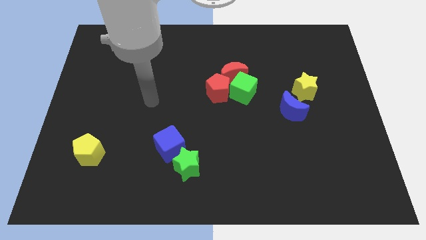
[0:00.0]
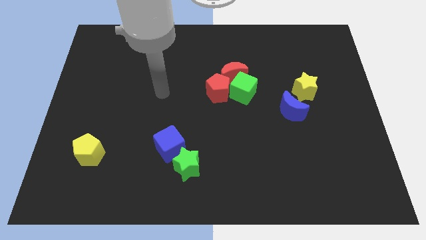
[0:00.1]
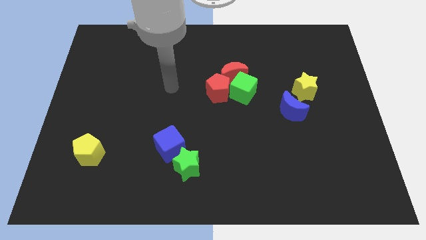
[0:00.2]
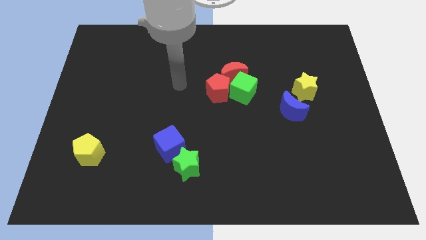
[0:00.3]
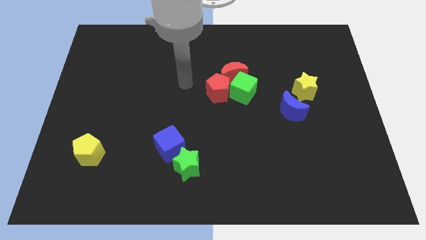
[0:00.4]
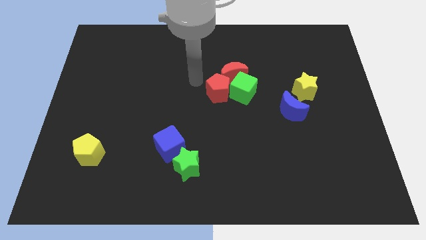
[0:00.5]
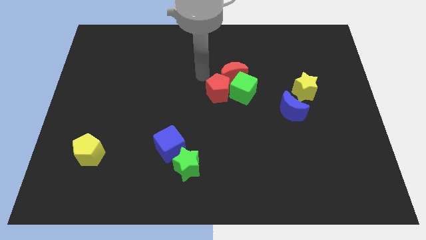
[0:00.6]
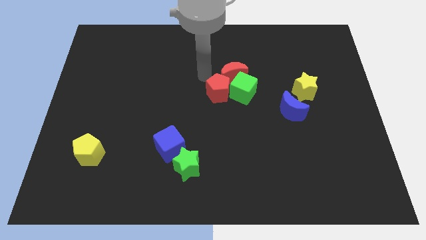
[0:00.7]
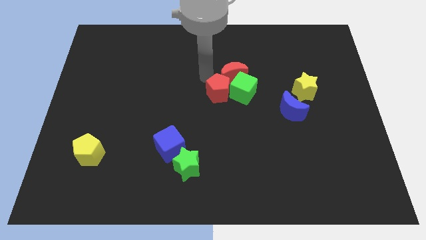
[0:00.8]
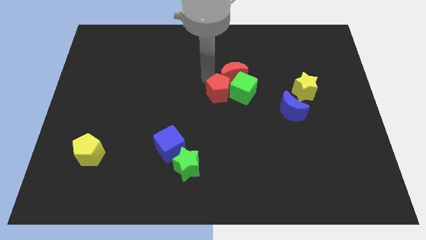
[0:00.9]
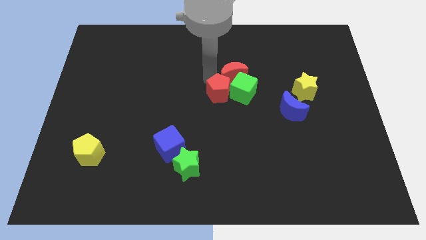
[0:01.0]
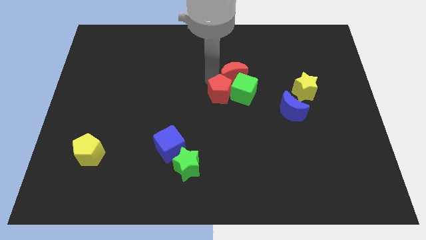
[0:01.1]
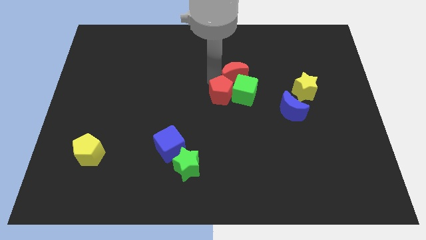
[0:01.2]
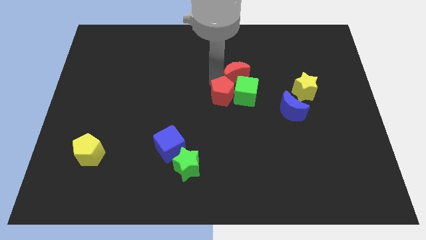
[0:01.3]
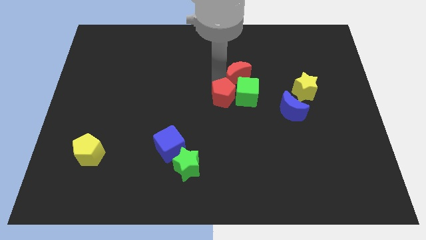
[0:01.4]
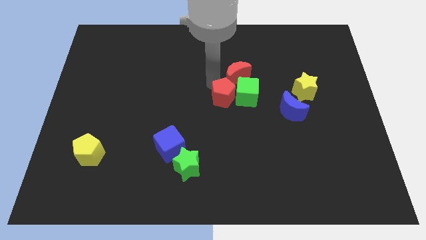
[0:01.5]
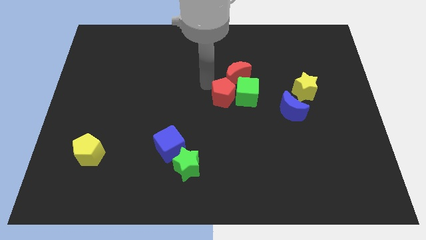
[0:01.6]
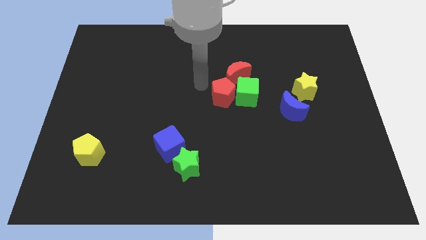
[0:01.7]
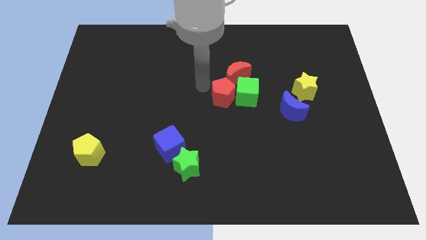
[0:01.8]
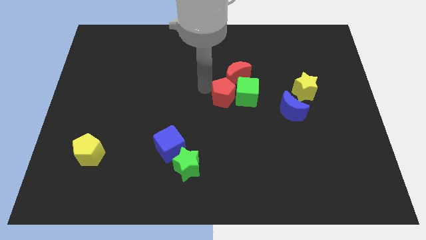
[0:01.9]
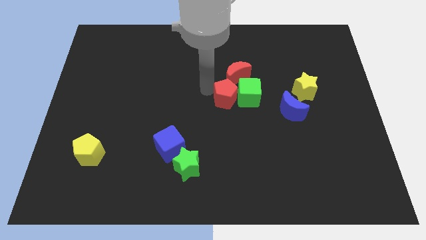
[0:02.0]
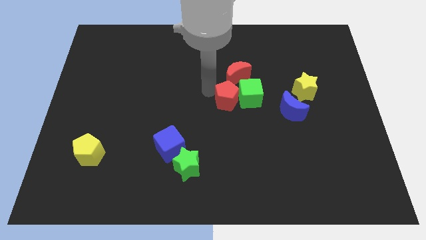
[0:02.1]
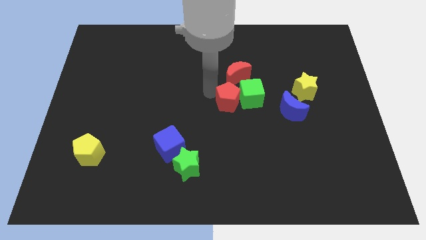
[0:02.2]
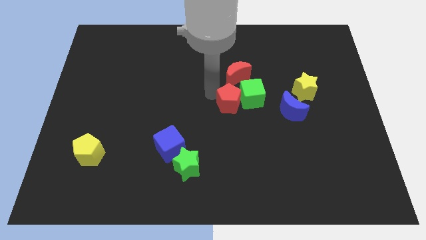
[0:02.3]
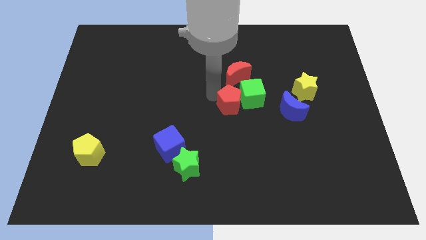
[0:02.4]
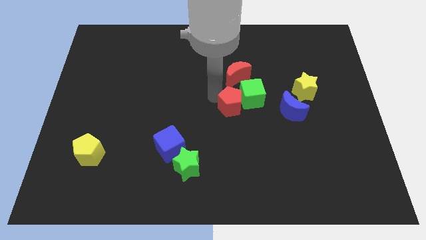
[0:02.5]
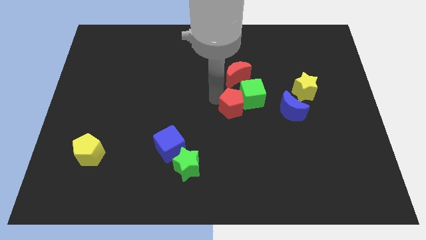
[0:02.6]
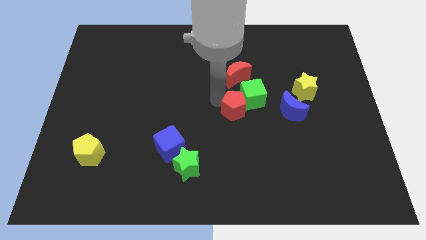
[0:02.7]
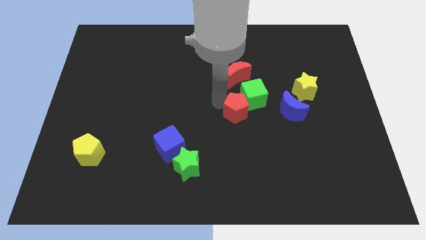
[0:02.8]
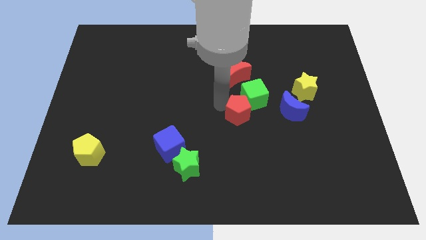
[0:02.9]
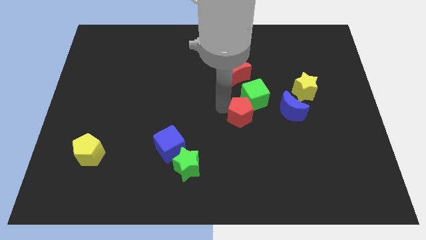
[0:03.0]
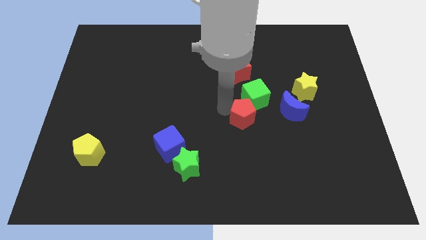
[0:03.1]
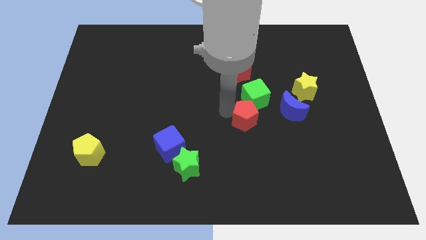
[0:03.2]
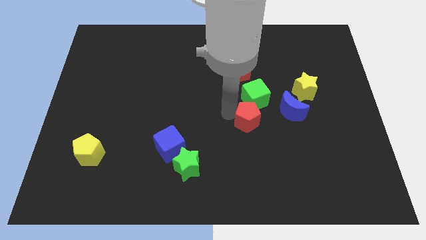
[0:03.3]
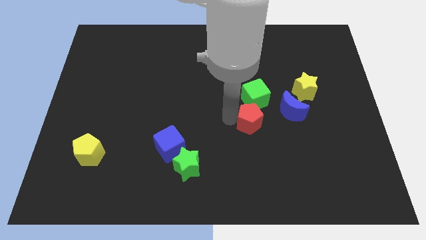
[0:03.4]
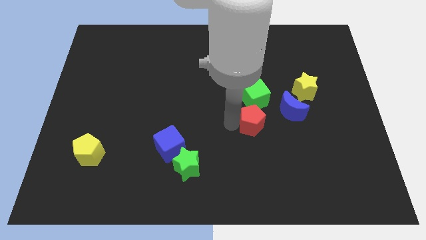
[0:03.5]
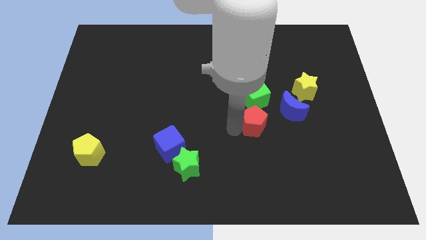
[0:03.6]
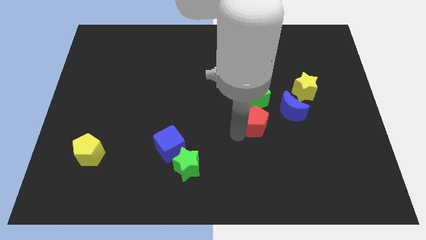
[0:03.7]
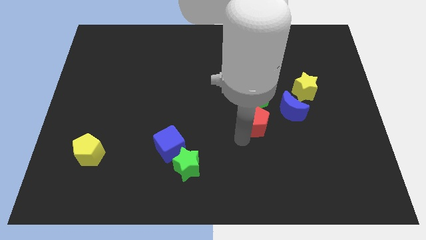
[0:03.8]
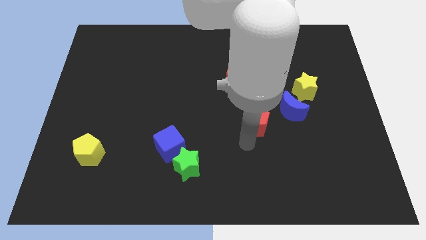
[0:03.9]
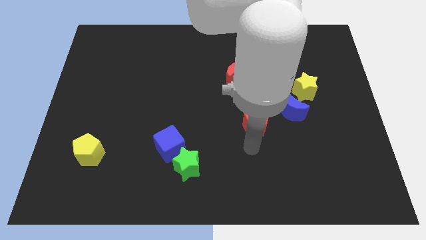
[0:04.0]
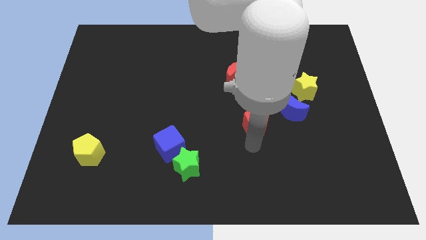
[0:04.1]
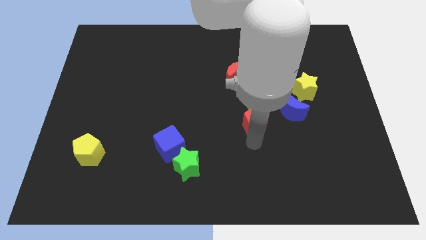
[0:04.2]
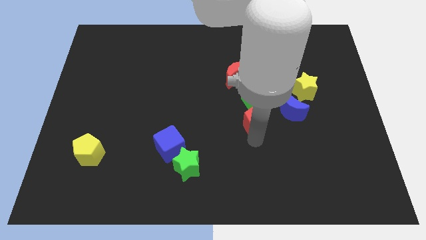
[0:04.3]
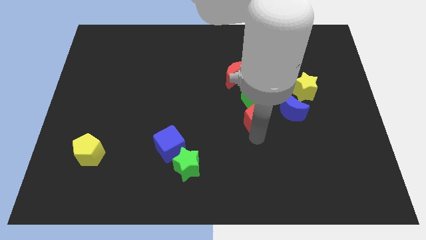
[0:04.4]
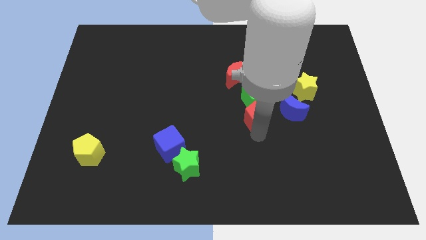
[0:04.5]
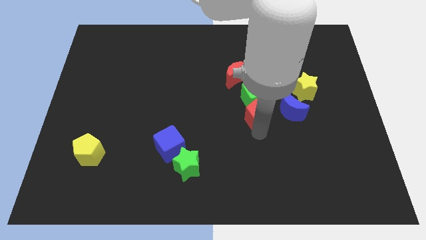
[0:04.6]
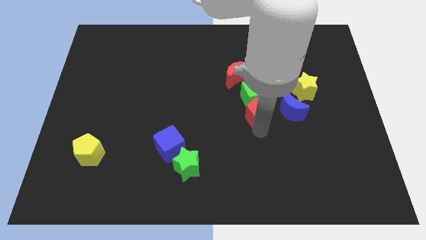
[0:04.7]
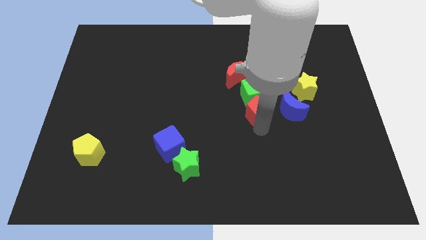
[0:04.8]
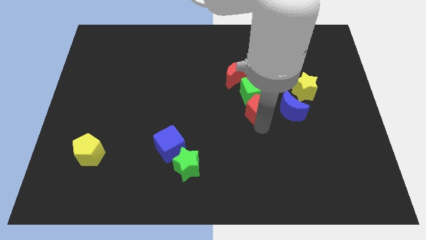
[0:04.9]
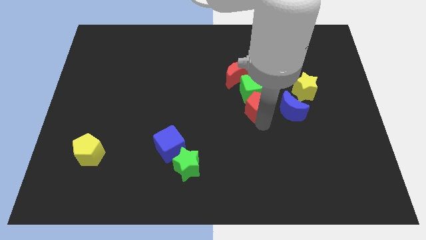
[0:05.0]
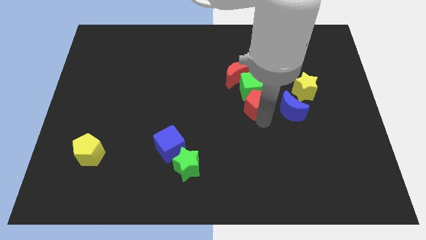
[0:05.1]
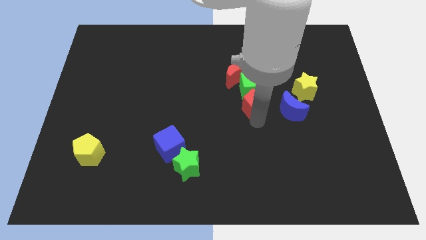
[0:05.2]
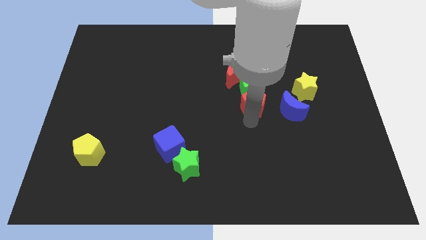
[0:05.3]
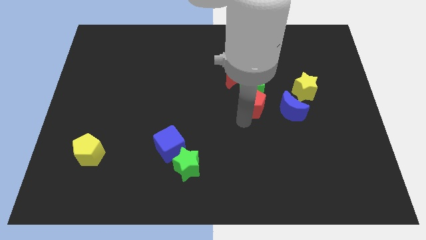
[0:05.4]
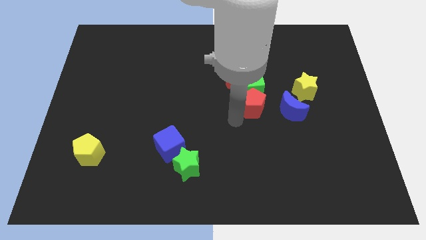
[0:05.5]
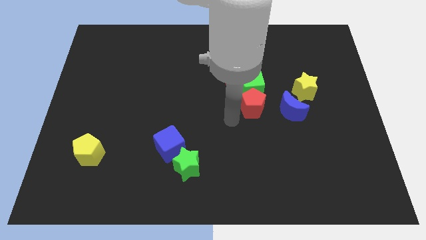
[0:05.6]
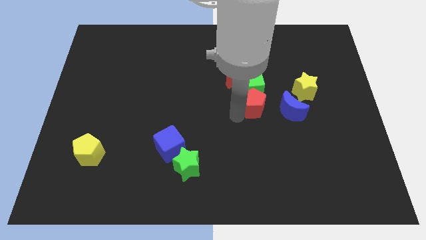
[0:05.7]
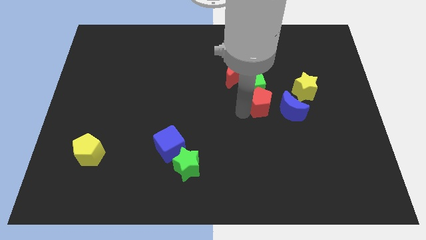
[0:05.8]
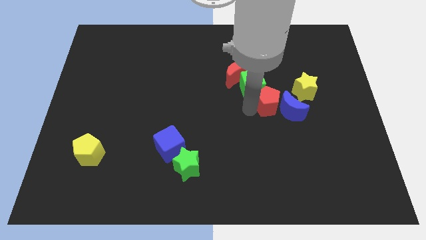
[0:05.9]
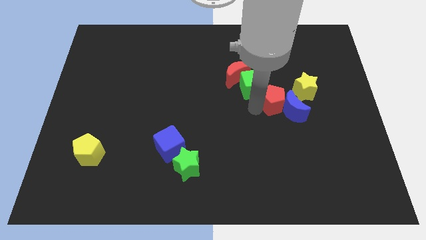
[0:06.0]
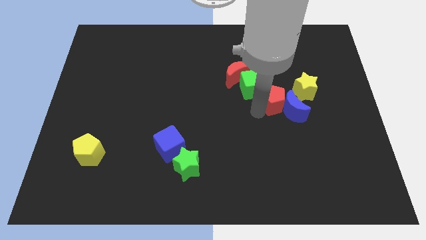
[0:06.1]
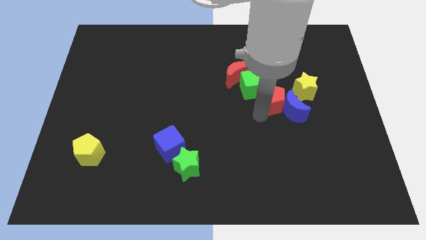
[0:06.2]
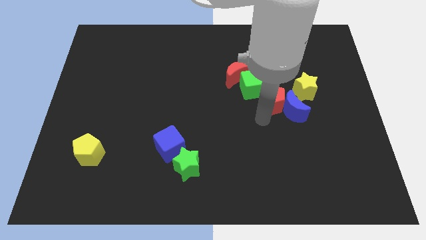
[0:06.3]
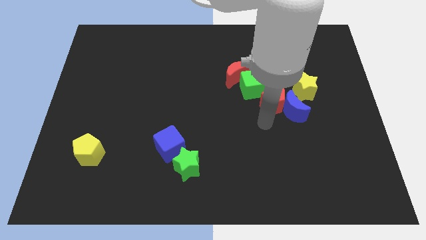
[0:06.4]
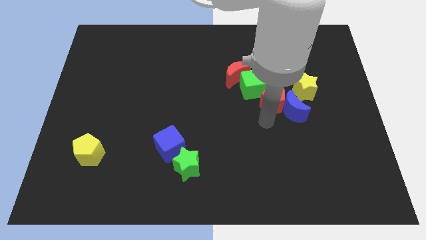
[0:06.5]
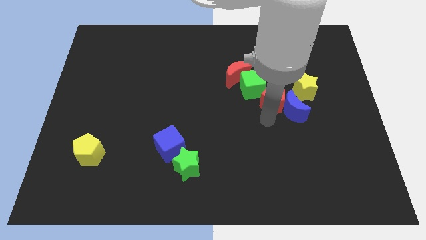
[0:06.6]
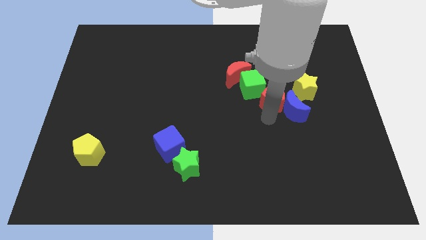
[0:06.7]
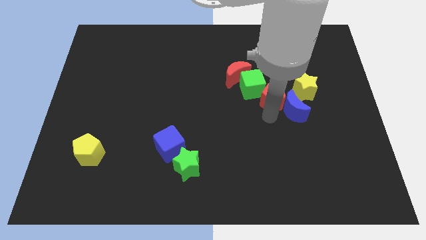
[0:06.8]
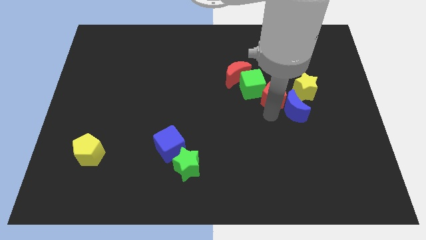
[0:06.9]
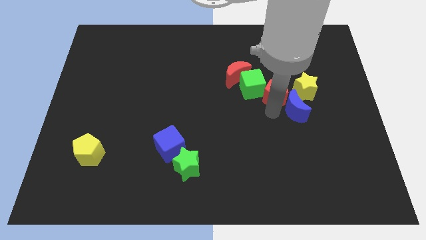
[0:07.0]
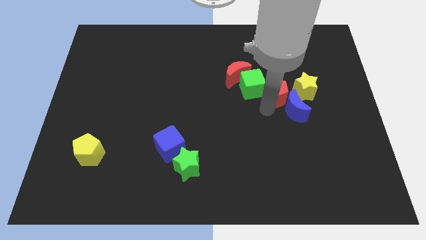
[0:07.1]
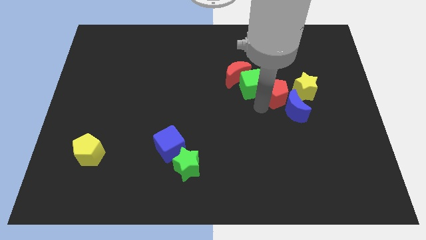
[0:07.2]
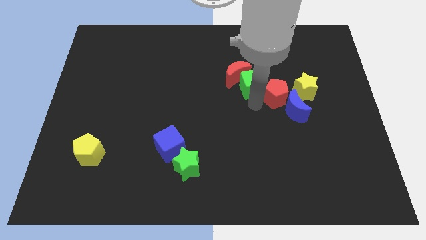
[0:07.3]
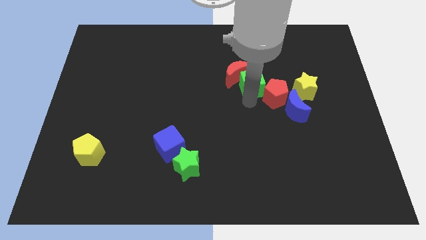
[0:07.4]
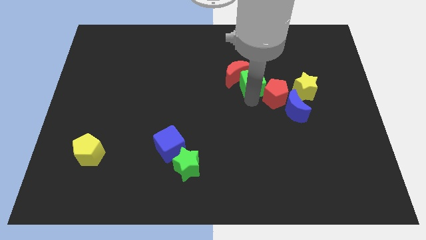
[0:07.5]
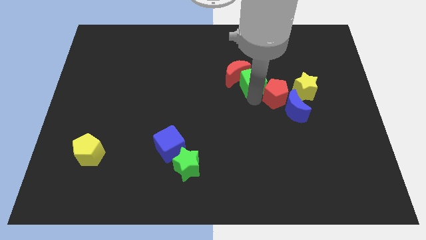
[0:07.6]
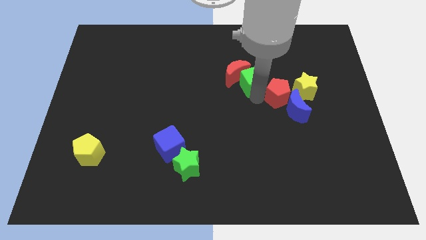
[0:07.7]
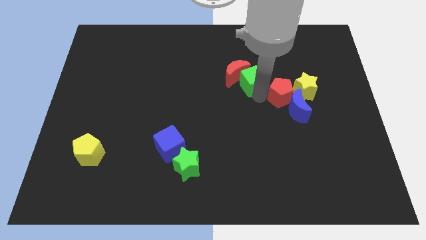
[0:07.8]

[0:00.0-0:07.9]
move the red pentagon close to the yellow star
